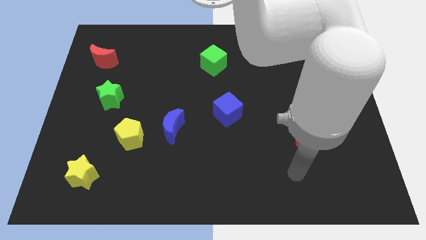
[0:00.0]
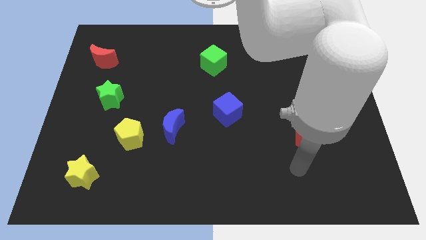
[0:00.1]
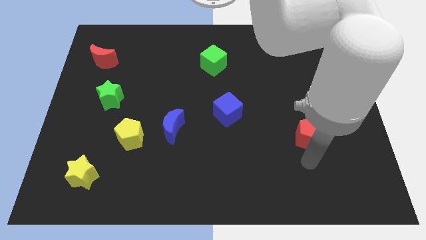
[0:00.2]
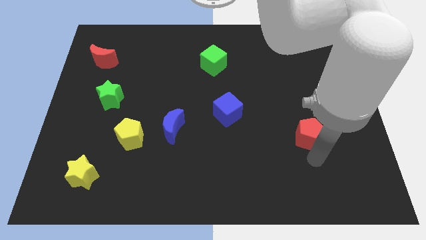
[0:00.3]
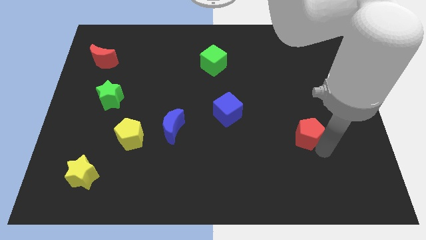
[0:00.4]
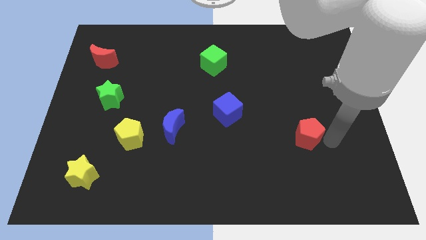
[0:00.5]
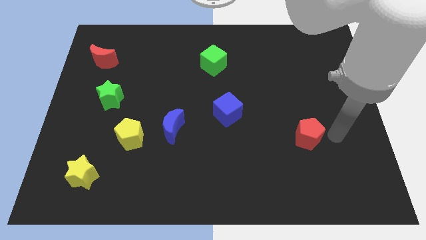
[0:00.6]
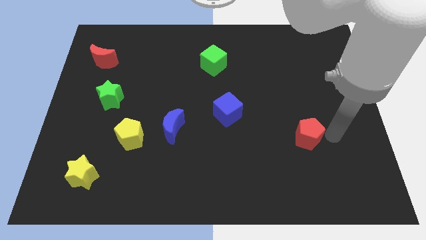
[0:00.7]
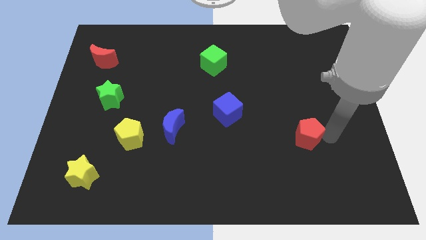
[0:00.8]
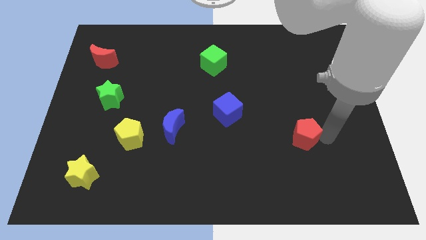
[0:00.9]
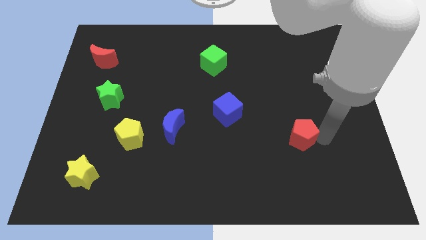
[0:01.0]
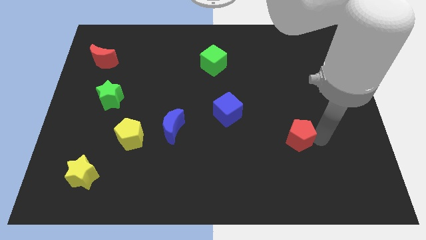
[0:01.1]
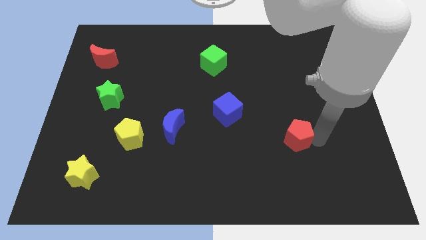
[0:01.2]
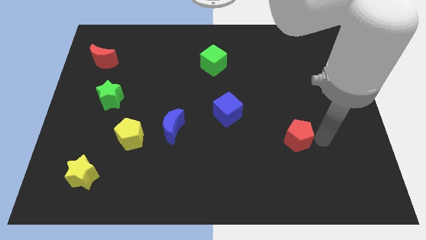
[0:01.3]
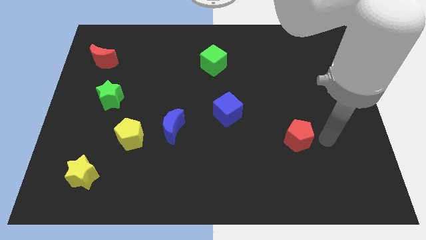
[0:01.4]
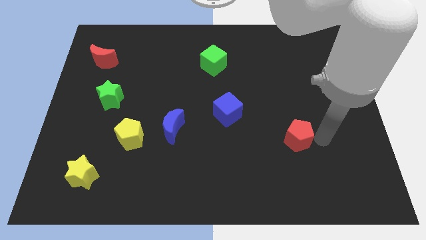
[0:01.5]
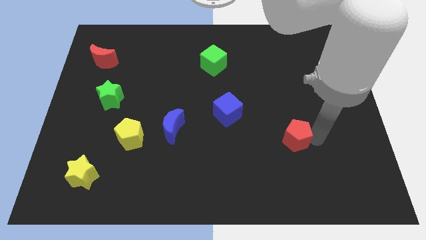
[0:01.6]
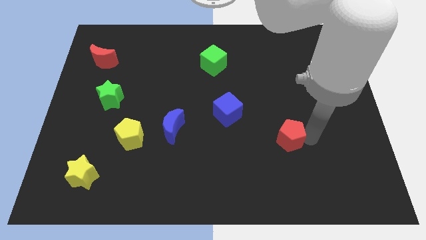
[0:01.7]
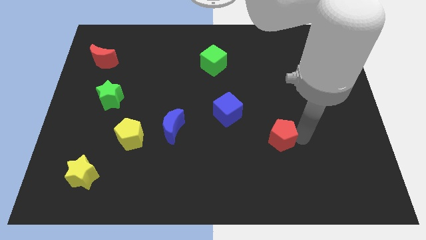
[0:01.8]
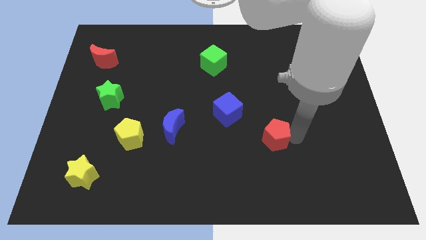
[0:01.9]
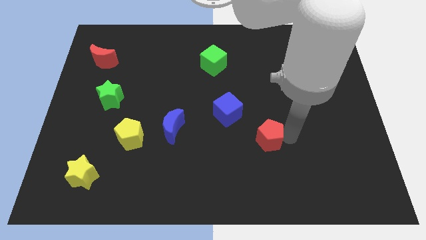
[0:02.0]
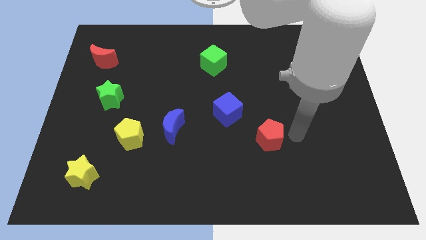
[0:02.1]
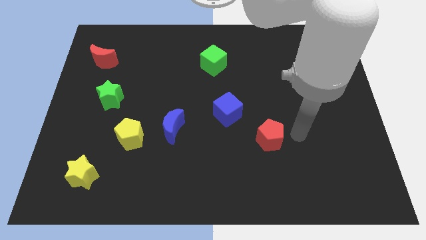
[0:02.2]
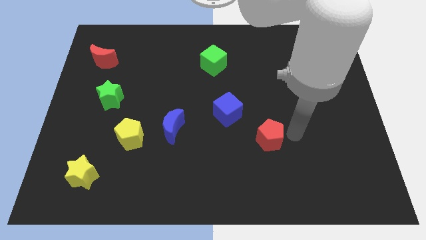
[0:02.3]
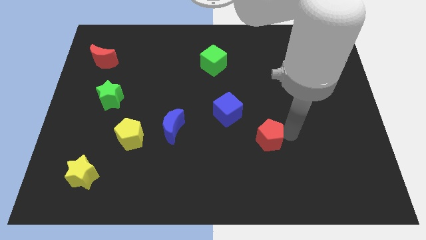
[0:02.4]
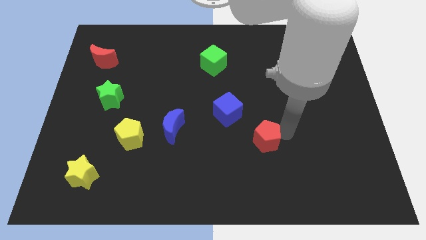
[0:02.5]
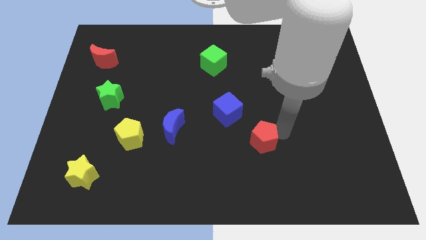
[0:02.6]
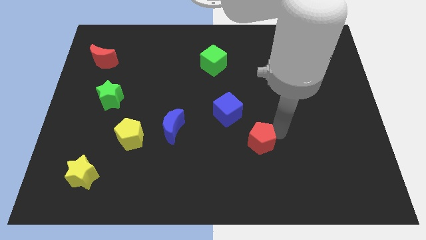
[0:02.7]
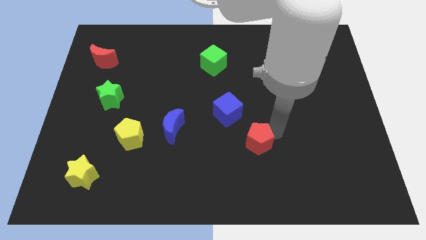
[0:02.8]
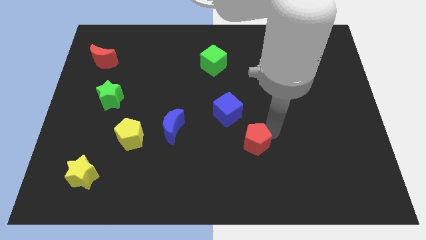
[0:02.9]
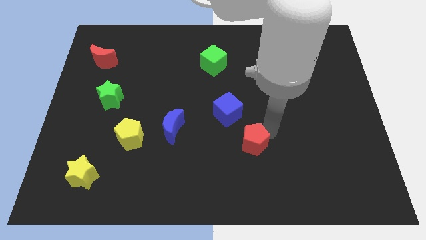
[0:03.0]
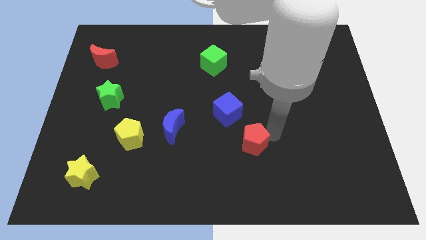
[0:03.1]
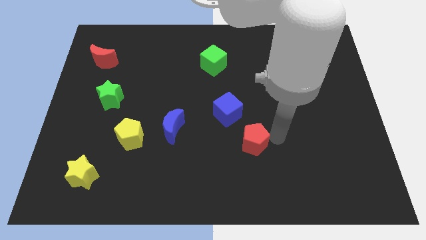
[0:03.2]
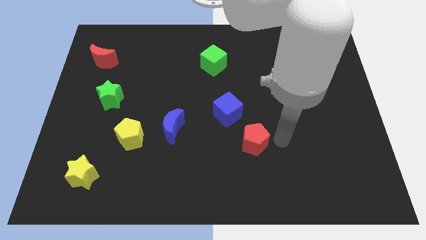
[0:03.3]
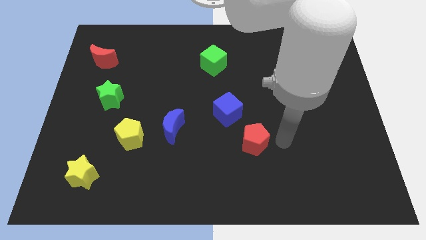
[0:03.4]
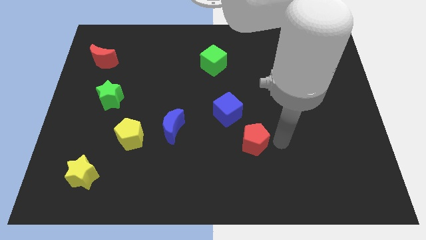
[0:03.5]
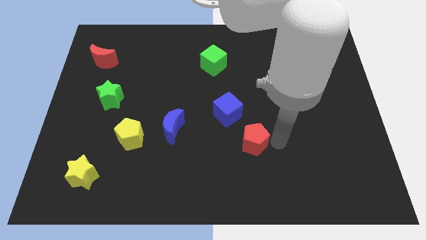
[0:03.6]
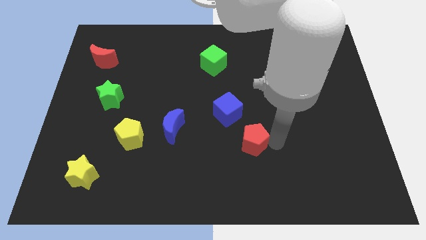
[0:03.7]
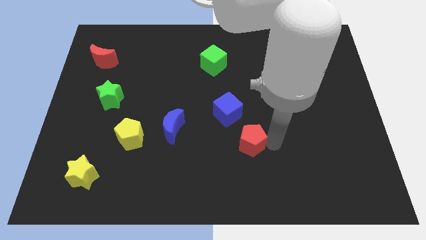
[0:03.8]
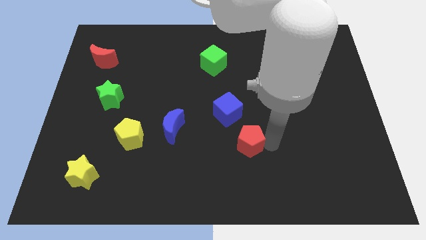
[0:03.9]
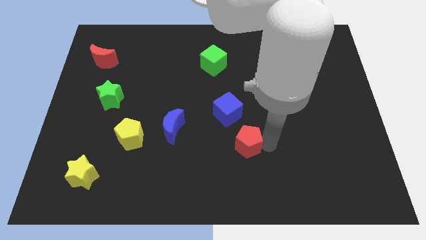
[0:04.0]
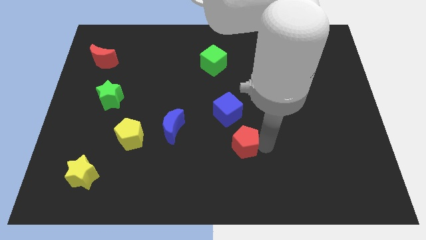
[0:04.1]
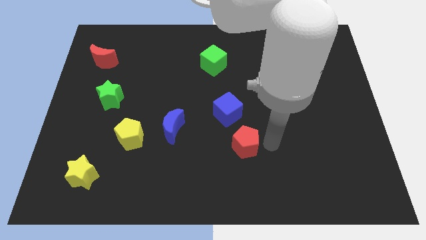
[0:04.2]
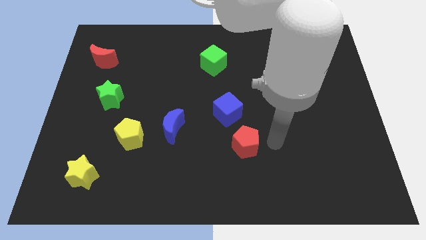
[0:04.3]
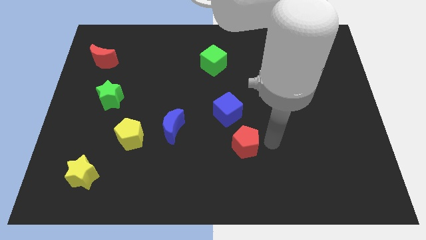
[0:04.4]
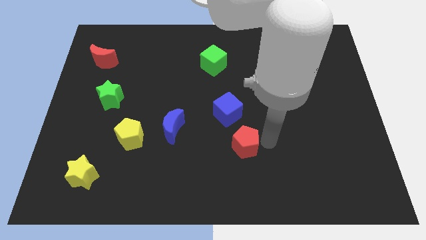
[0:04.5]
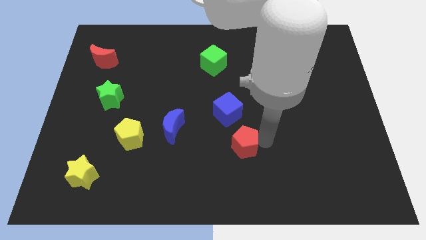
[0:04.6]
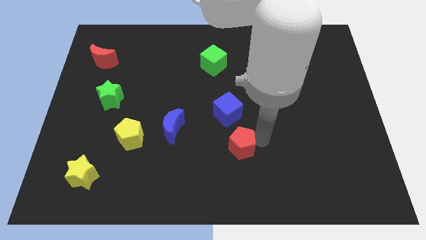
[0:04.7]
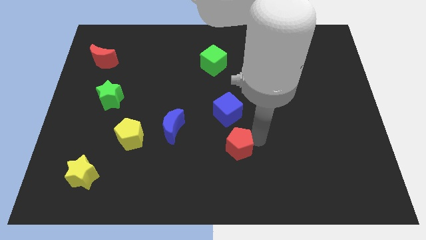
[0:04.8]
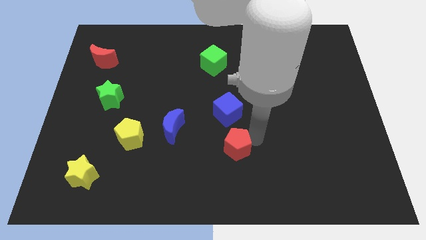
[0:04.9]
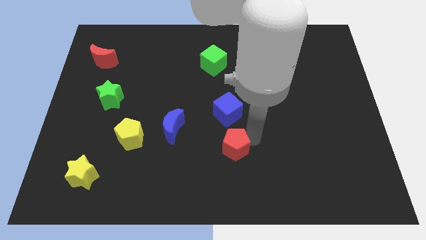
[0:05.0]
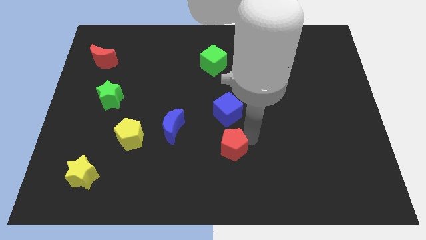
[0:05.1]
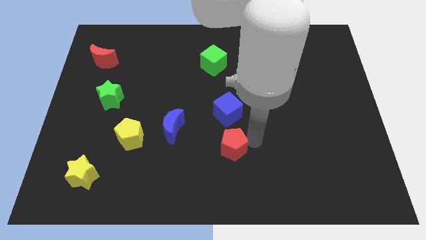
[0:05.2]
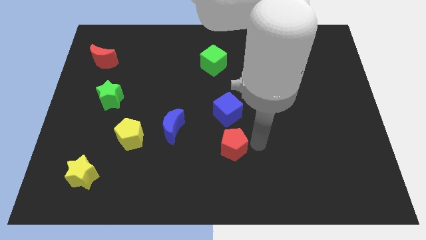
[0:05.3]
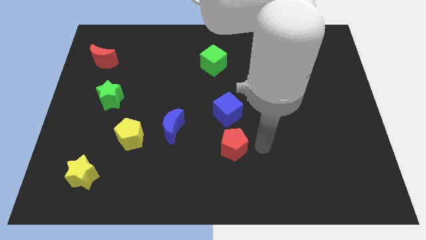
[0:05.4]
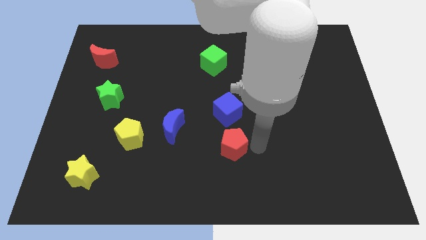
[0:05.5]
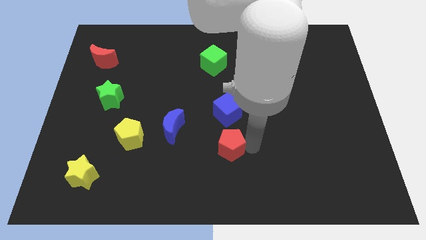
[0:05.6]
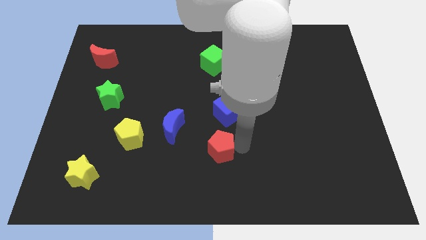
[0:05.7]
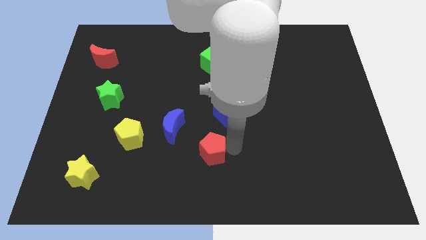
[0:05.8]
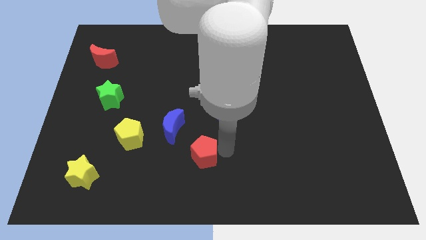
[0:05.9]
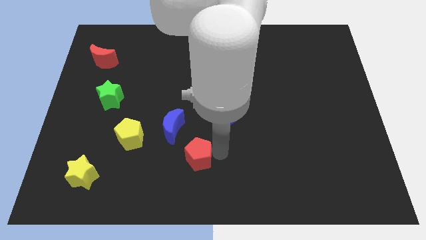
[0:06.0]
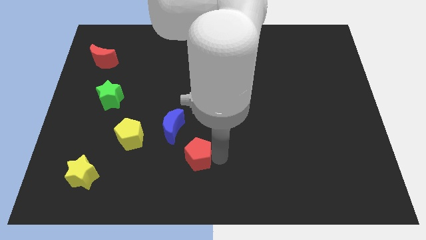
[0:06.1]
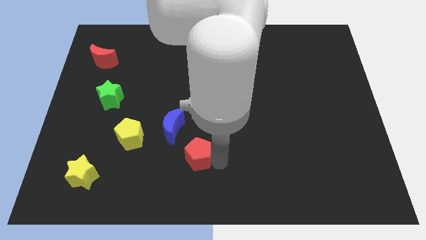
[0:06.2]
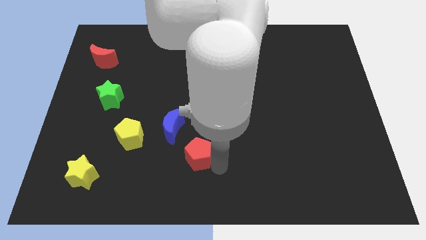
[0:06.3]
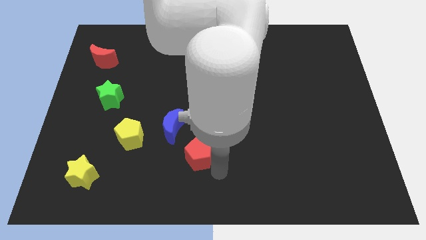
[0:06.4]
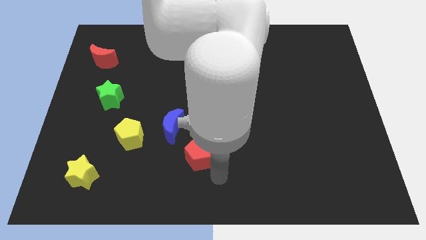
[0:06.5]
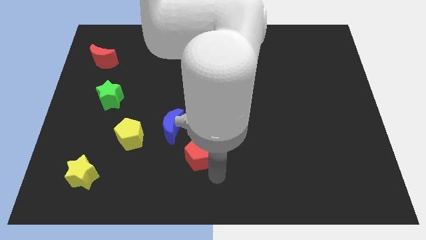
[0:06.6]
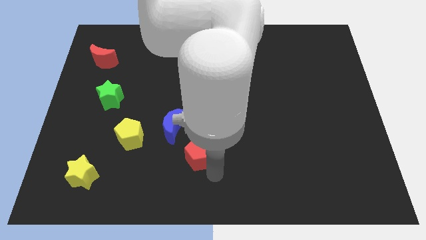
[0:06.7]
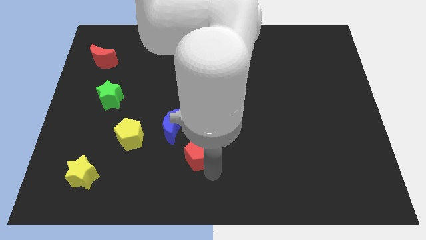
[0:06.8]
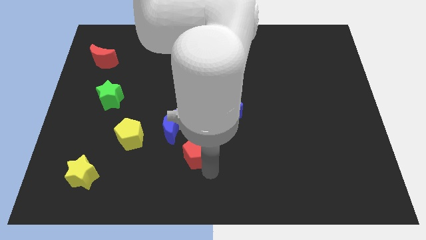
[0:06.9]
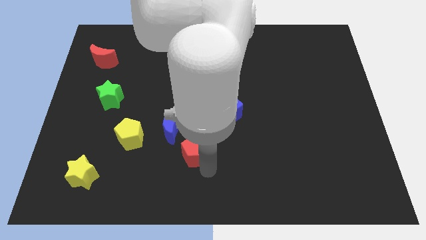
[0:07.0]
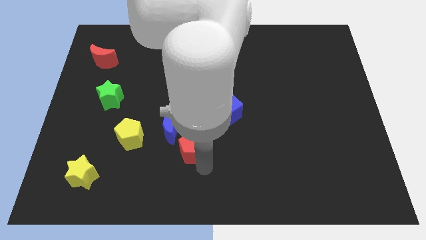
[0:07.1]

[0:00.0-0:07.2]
put the red pentagon right of the yellow pentagon

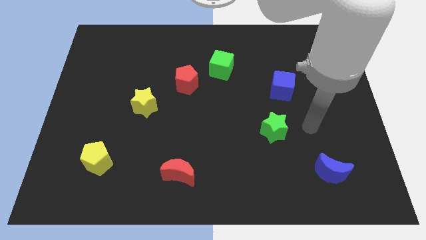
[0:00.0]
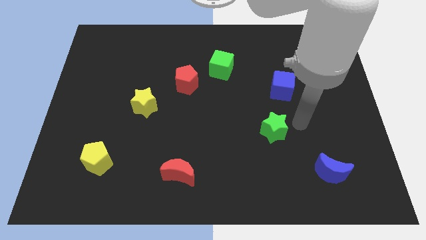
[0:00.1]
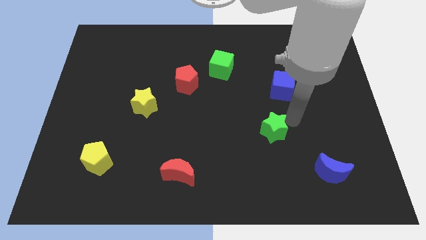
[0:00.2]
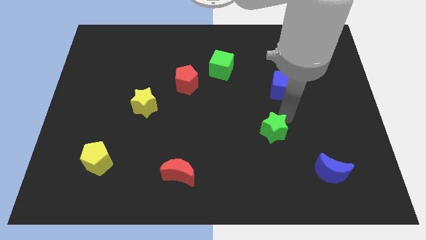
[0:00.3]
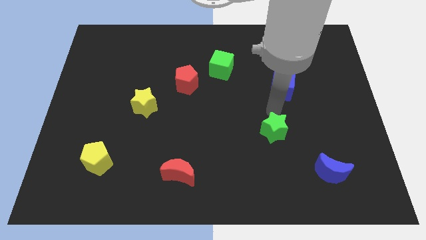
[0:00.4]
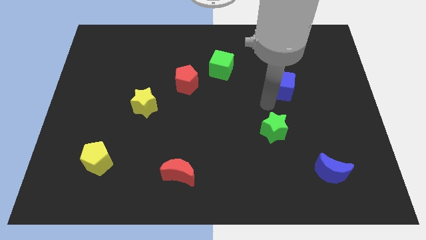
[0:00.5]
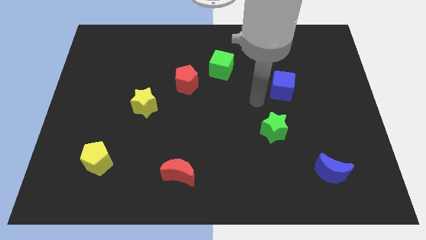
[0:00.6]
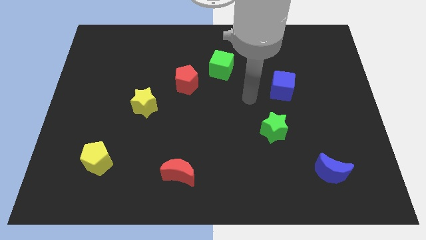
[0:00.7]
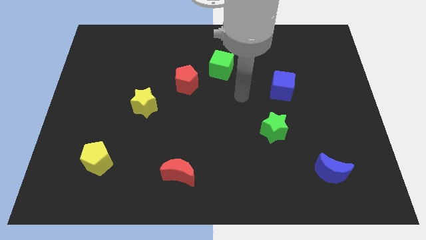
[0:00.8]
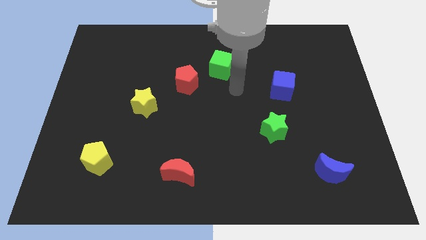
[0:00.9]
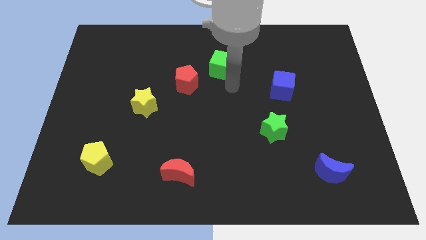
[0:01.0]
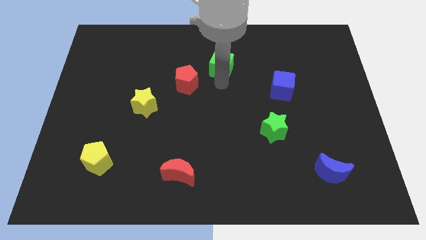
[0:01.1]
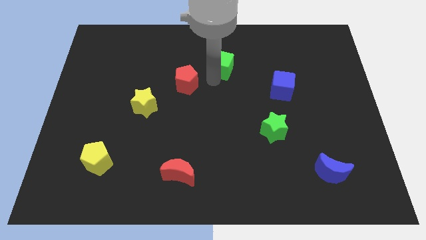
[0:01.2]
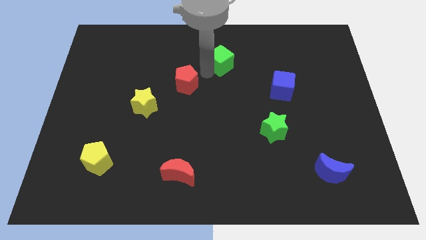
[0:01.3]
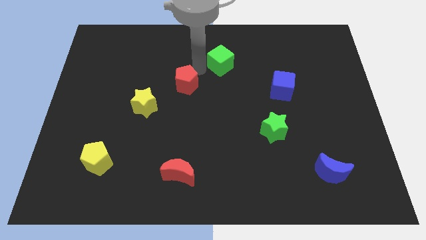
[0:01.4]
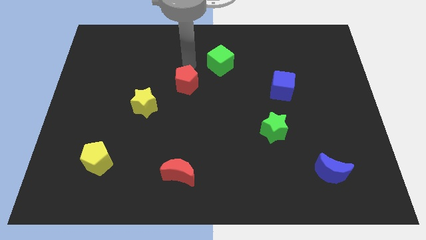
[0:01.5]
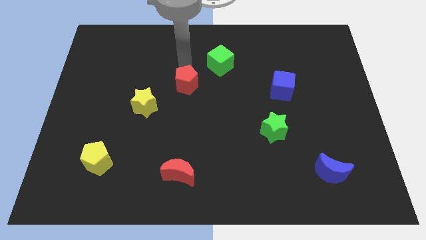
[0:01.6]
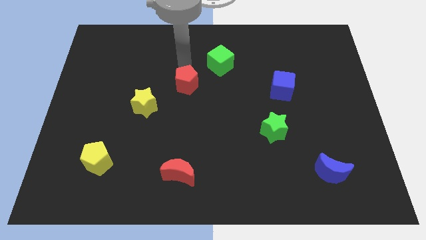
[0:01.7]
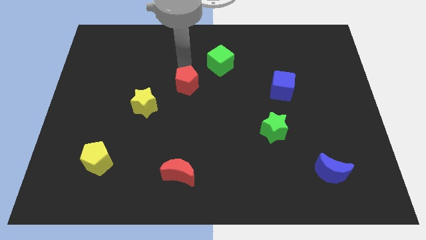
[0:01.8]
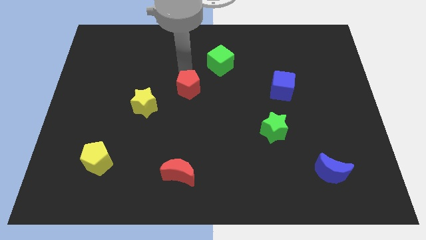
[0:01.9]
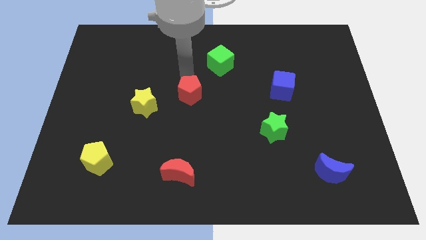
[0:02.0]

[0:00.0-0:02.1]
put the red pentagon right of the yellow star
